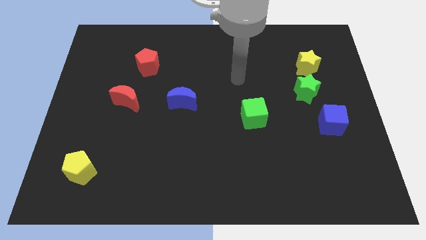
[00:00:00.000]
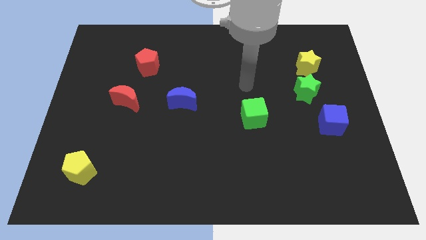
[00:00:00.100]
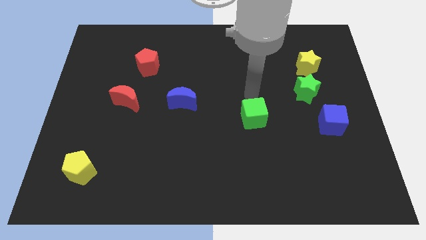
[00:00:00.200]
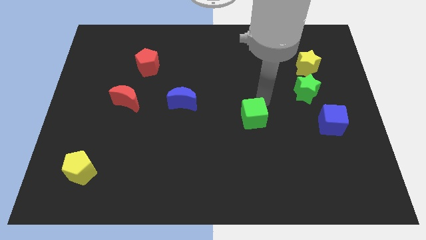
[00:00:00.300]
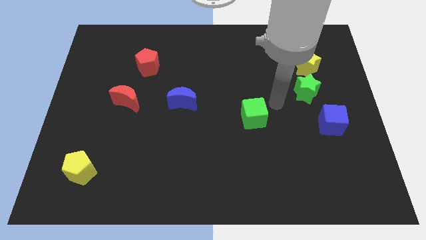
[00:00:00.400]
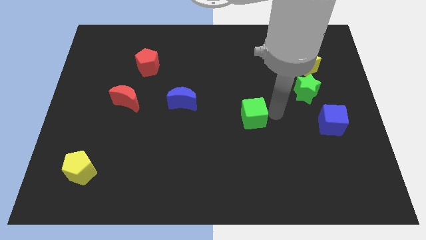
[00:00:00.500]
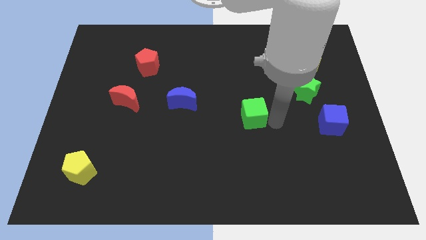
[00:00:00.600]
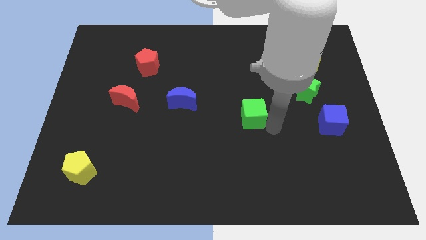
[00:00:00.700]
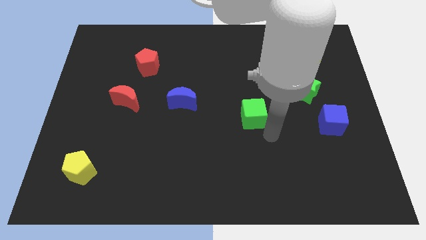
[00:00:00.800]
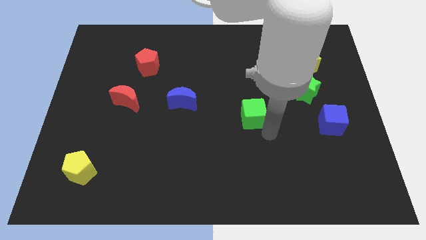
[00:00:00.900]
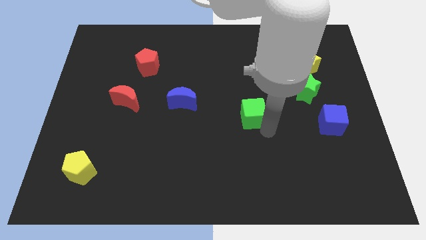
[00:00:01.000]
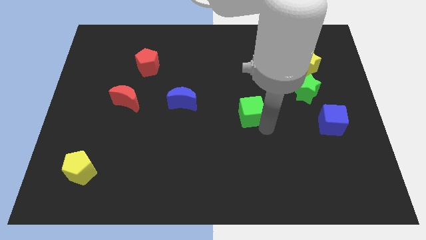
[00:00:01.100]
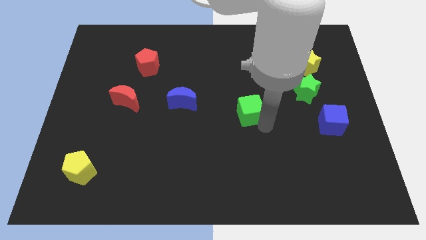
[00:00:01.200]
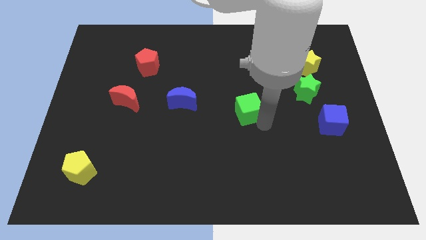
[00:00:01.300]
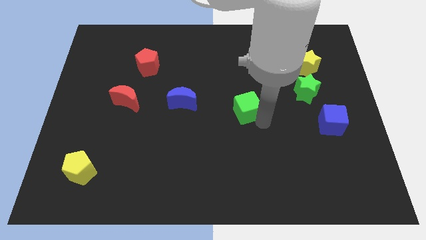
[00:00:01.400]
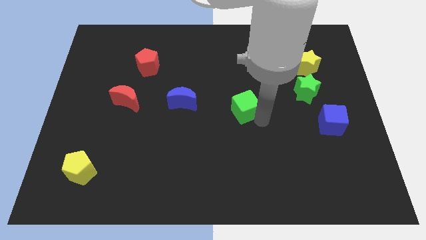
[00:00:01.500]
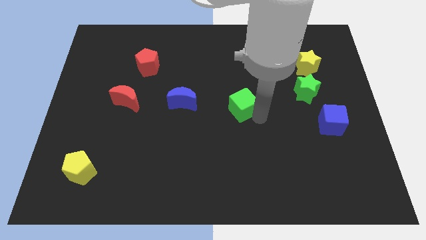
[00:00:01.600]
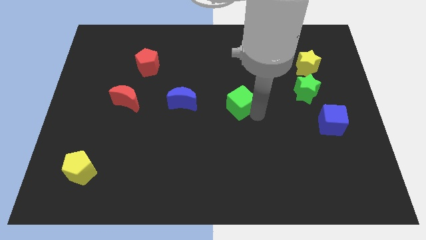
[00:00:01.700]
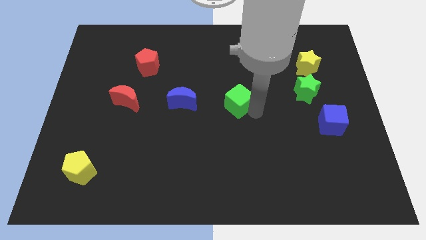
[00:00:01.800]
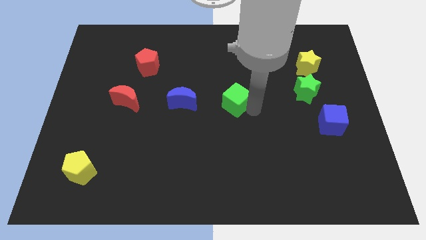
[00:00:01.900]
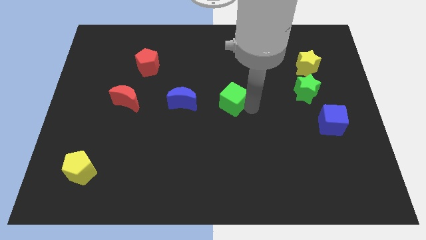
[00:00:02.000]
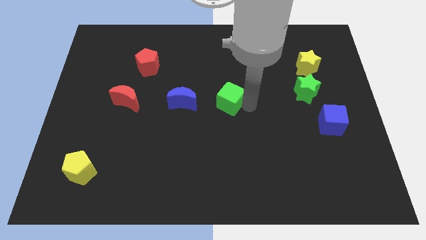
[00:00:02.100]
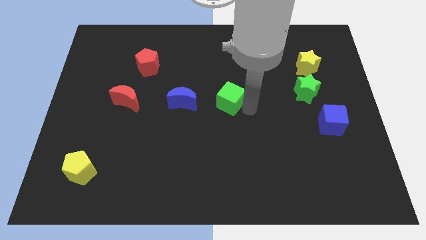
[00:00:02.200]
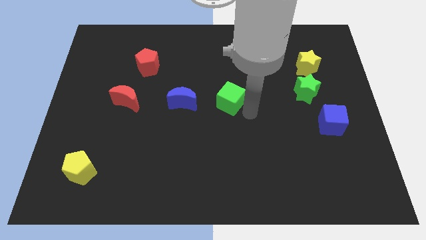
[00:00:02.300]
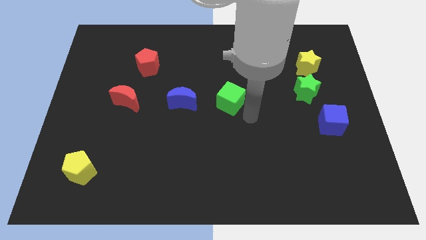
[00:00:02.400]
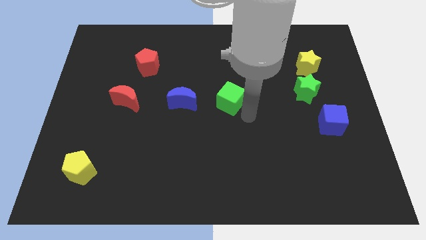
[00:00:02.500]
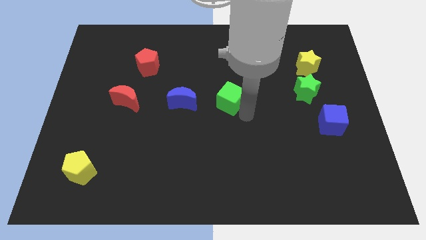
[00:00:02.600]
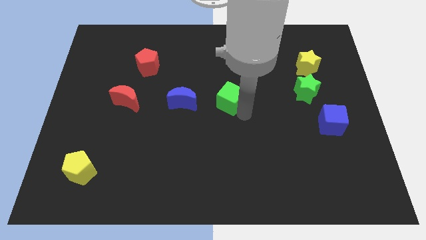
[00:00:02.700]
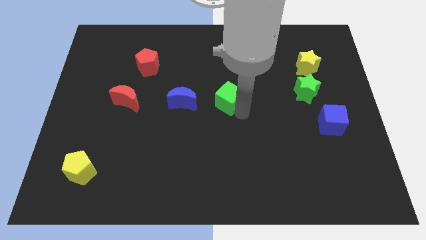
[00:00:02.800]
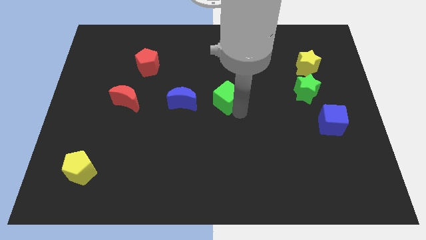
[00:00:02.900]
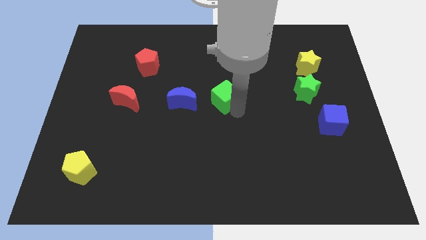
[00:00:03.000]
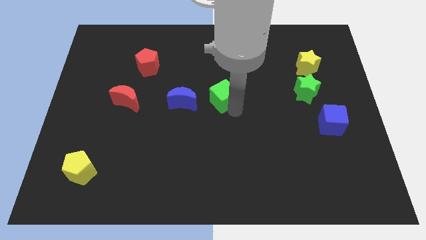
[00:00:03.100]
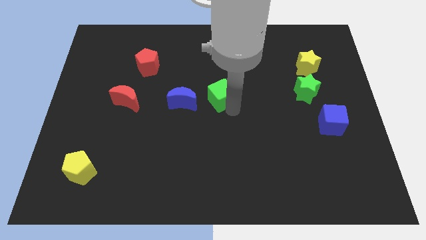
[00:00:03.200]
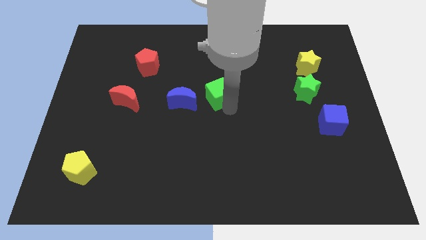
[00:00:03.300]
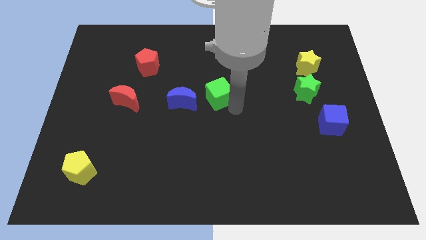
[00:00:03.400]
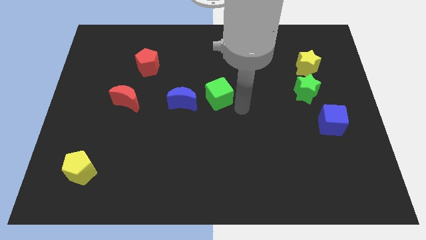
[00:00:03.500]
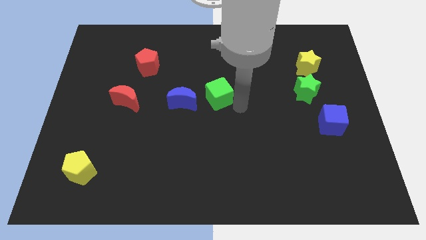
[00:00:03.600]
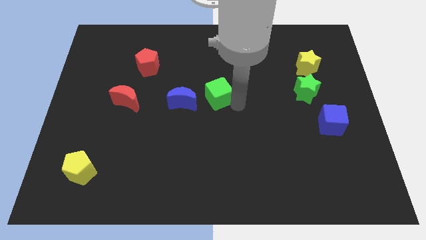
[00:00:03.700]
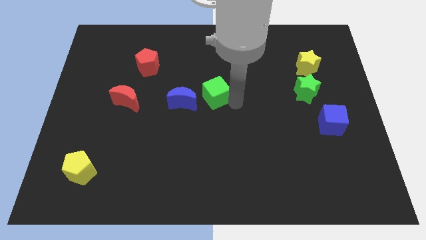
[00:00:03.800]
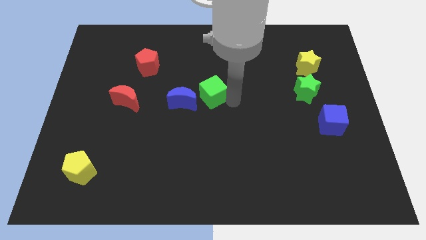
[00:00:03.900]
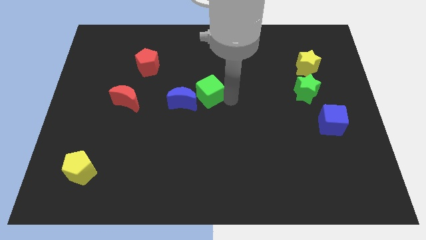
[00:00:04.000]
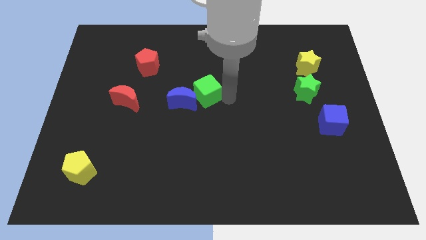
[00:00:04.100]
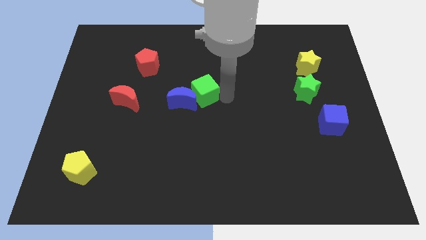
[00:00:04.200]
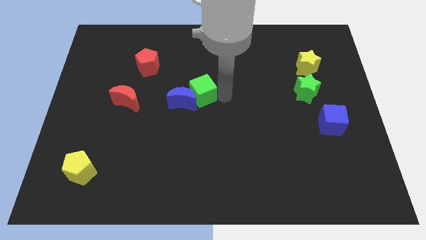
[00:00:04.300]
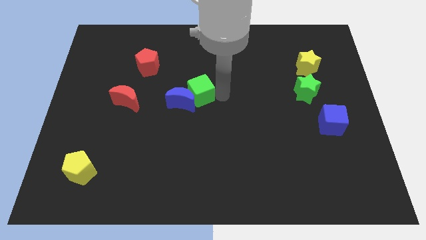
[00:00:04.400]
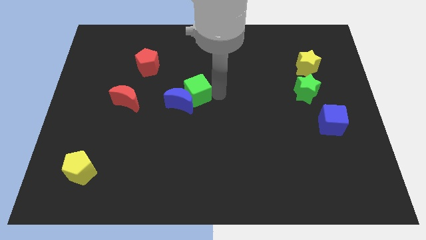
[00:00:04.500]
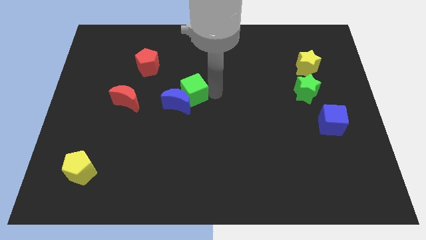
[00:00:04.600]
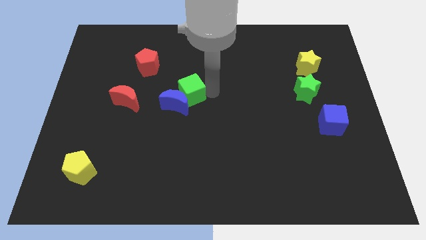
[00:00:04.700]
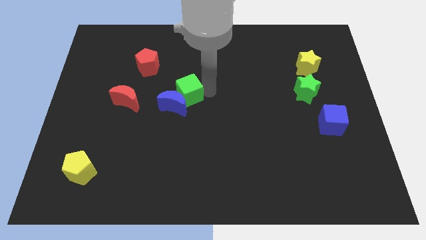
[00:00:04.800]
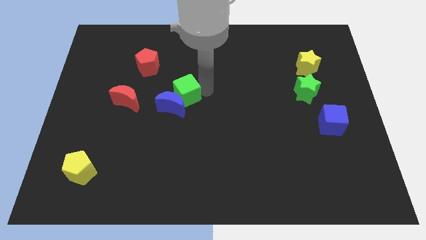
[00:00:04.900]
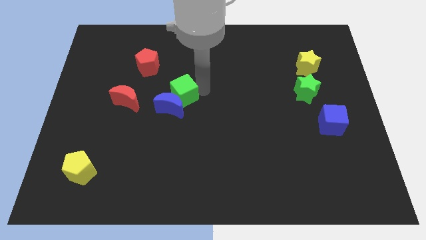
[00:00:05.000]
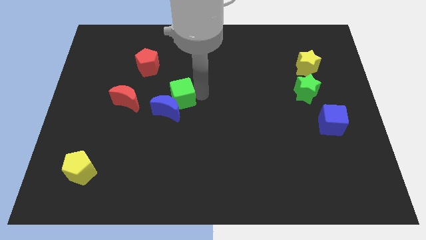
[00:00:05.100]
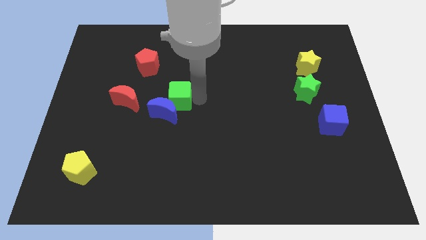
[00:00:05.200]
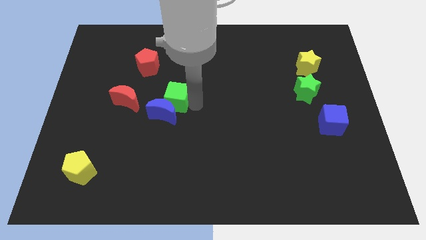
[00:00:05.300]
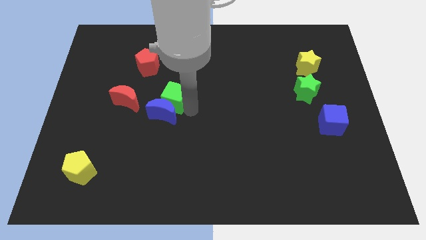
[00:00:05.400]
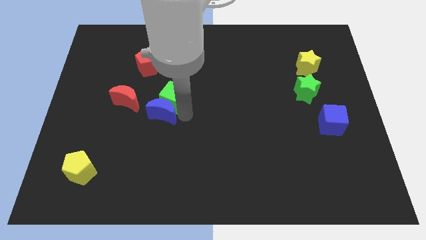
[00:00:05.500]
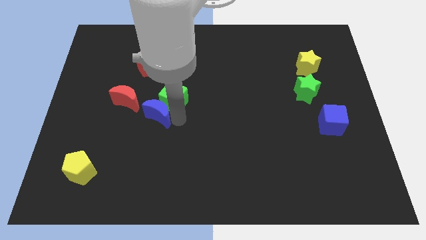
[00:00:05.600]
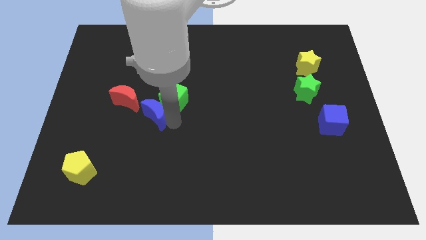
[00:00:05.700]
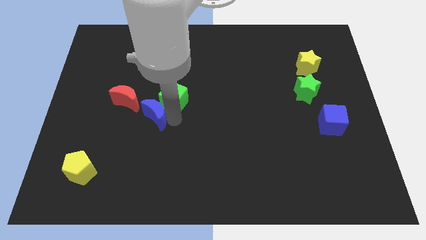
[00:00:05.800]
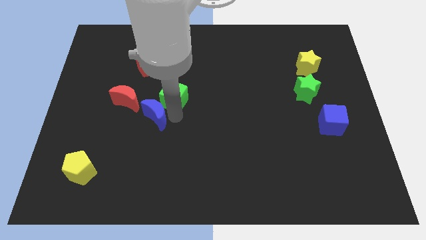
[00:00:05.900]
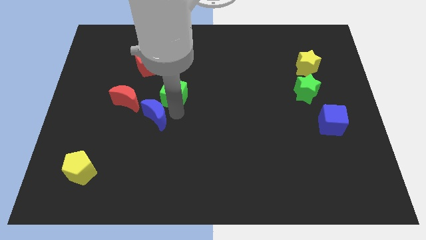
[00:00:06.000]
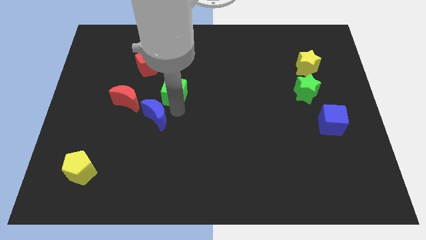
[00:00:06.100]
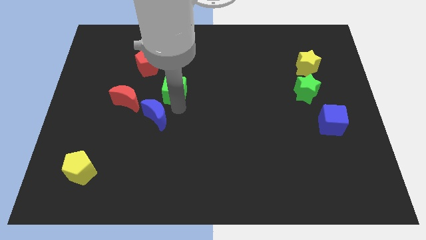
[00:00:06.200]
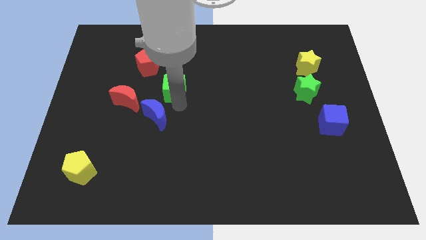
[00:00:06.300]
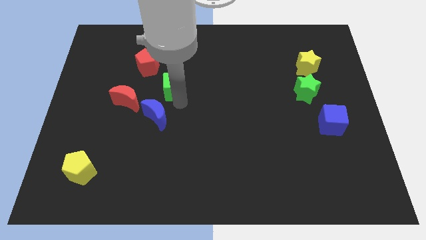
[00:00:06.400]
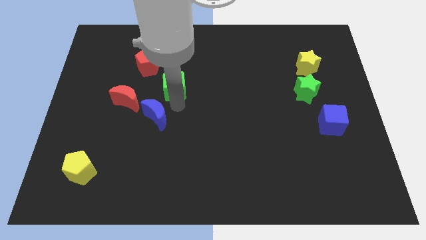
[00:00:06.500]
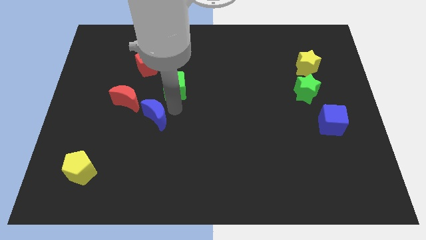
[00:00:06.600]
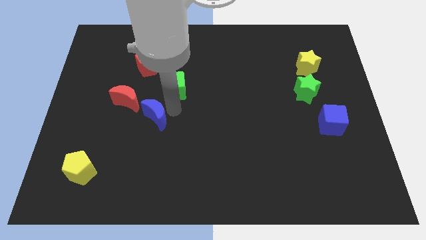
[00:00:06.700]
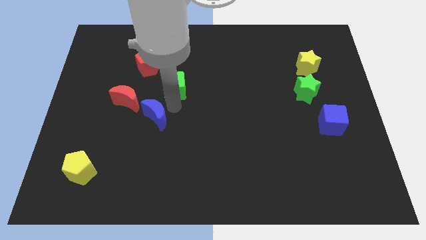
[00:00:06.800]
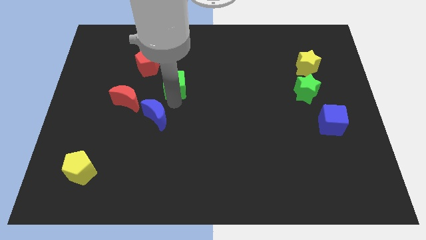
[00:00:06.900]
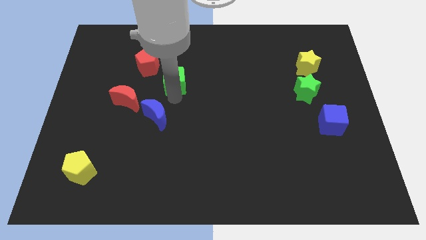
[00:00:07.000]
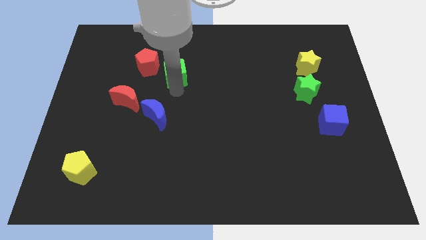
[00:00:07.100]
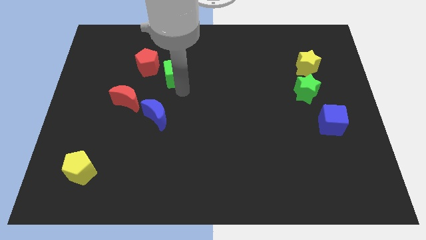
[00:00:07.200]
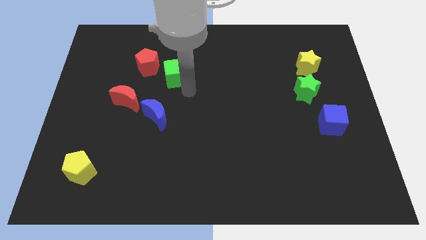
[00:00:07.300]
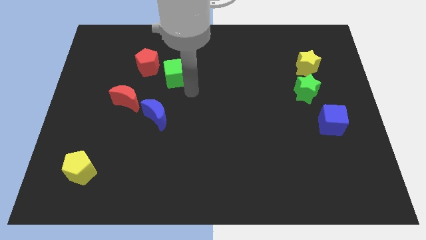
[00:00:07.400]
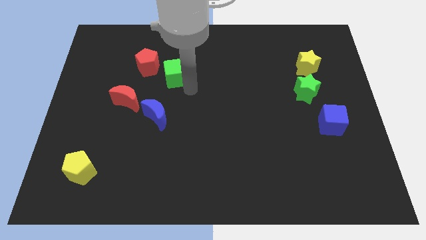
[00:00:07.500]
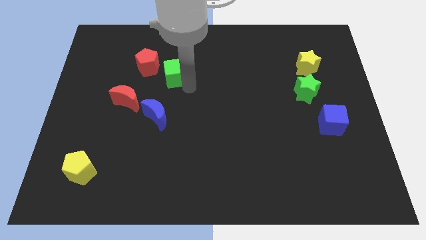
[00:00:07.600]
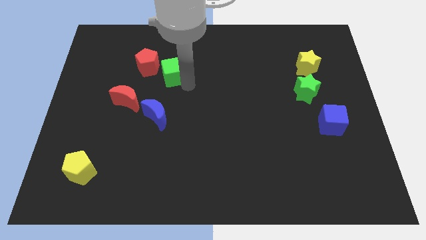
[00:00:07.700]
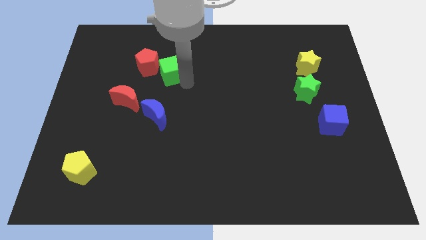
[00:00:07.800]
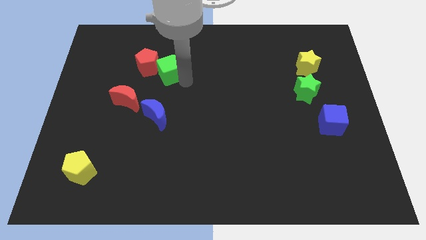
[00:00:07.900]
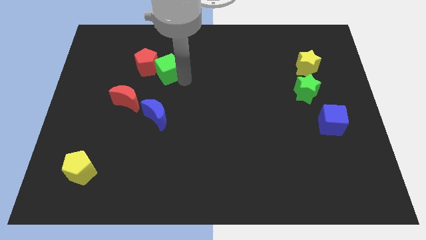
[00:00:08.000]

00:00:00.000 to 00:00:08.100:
move the green cube towards the red pentagon
